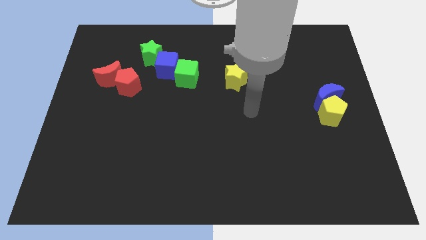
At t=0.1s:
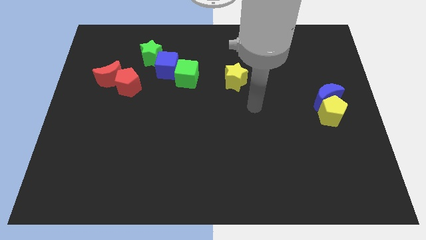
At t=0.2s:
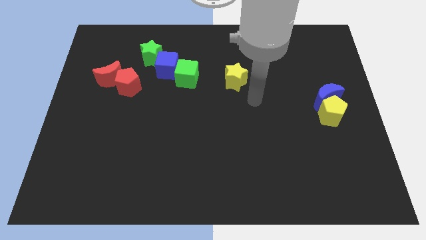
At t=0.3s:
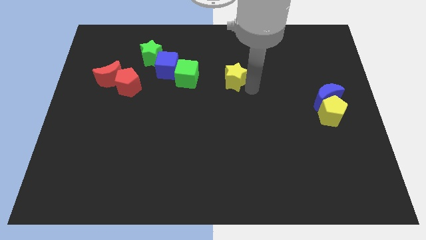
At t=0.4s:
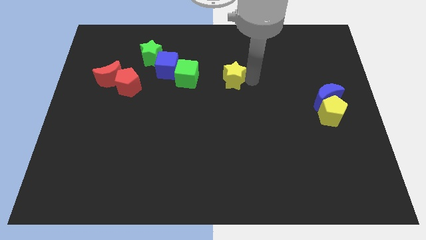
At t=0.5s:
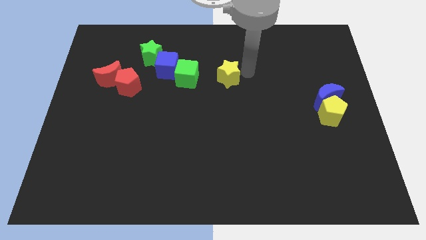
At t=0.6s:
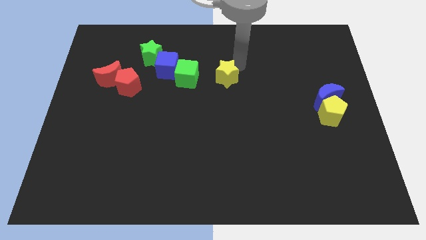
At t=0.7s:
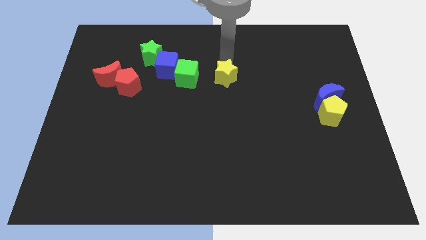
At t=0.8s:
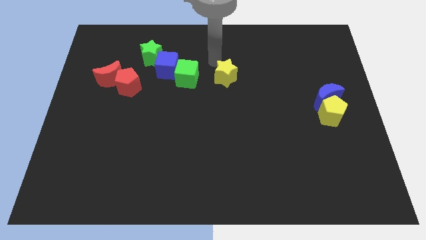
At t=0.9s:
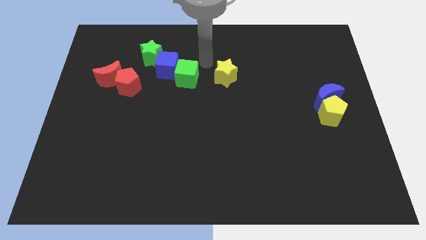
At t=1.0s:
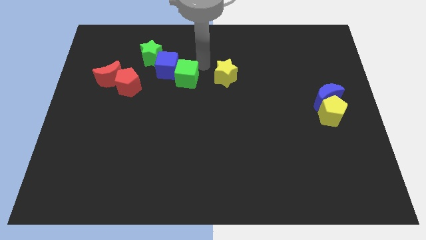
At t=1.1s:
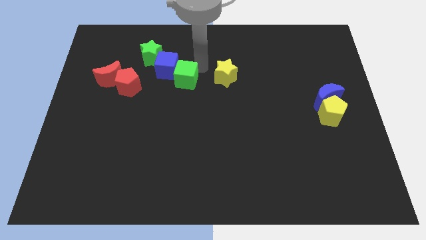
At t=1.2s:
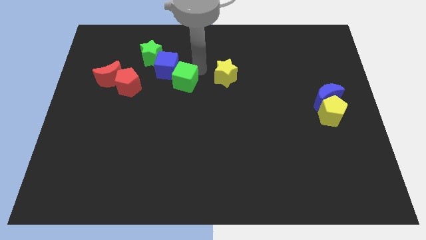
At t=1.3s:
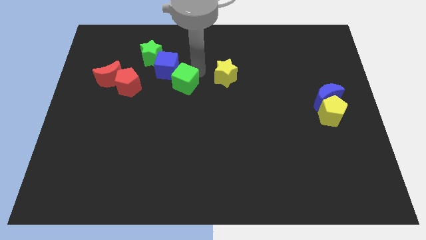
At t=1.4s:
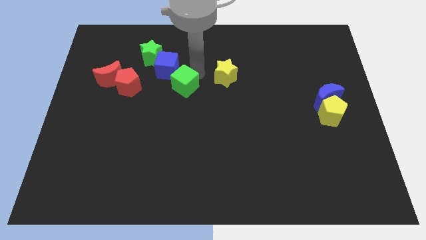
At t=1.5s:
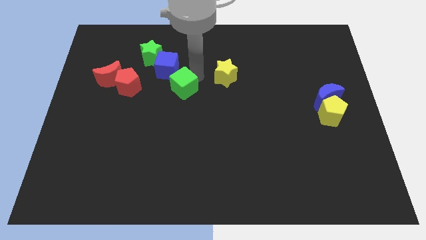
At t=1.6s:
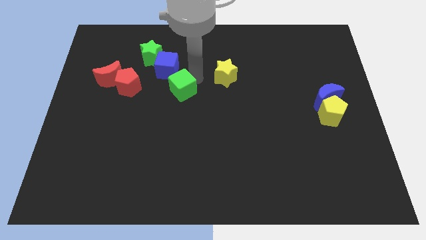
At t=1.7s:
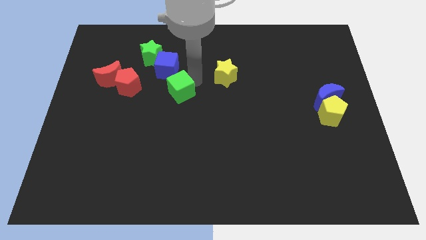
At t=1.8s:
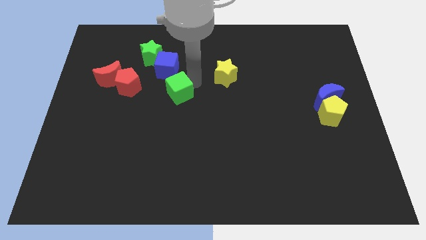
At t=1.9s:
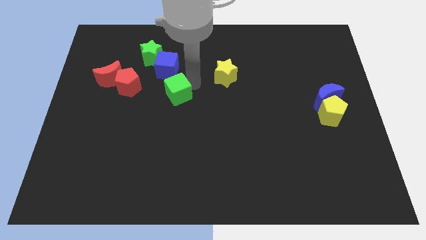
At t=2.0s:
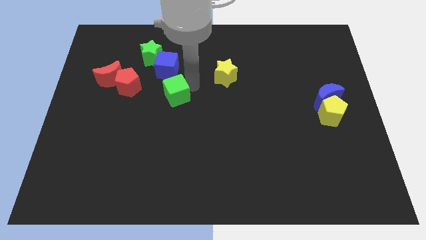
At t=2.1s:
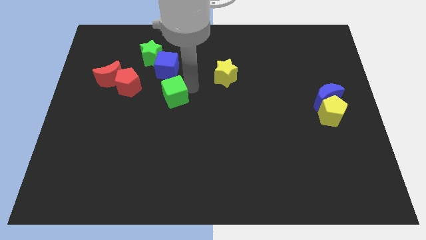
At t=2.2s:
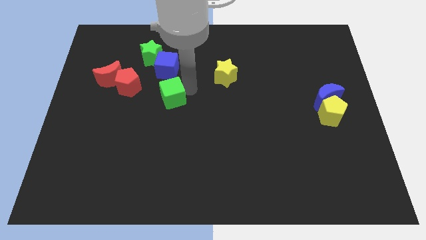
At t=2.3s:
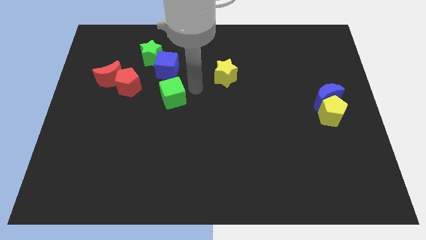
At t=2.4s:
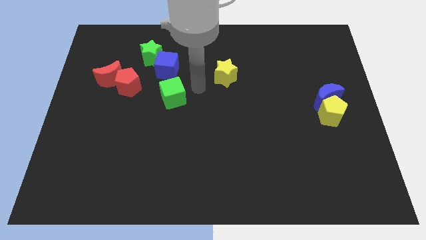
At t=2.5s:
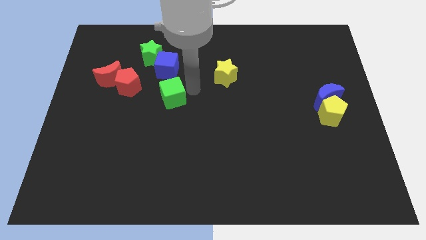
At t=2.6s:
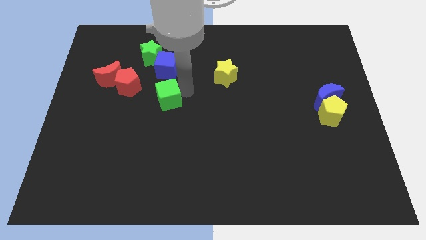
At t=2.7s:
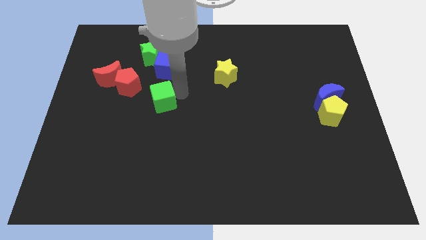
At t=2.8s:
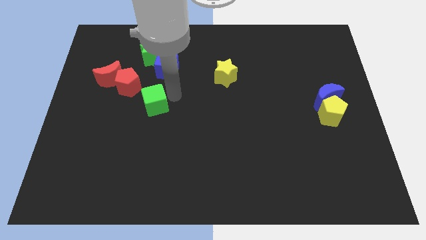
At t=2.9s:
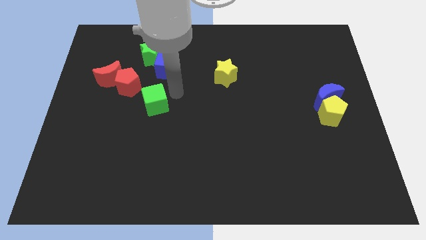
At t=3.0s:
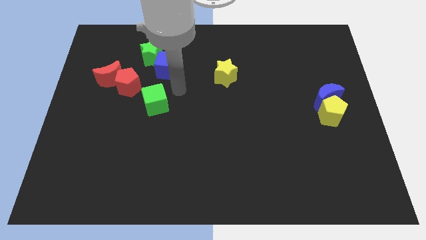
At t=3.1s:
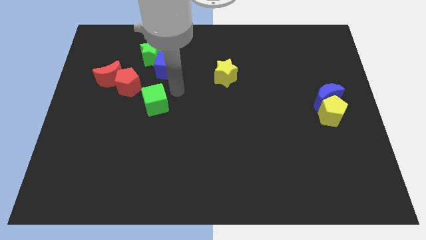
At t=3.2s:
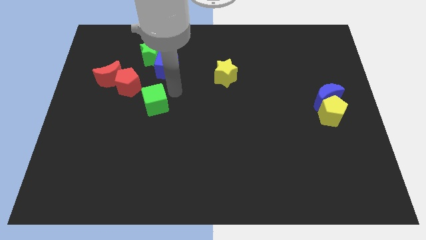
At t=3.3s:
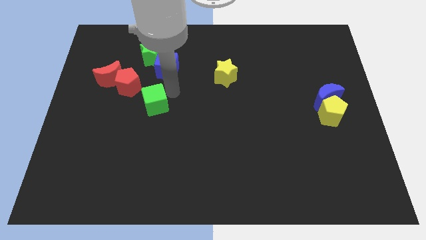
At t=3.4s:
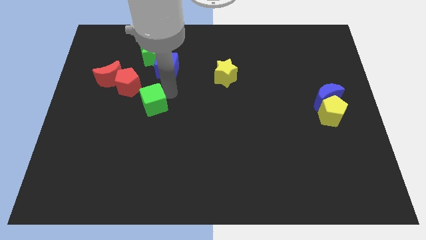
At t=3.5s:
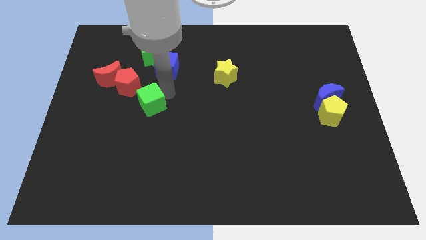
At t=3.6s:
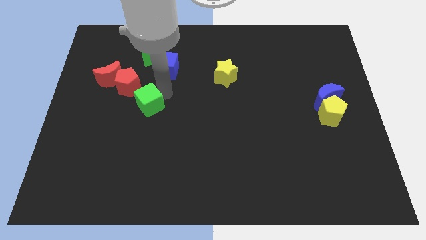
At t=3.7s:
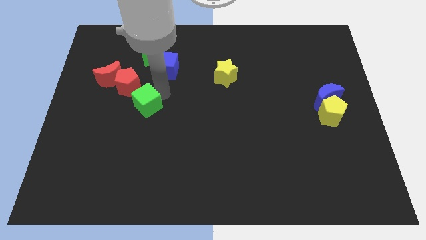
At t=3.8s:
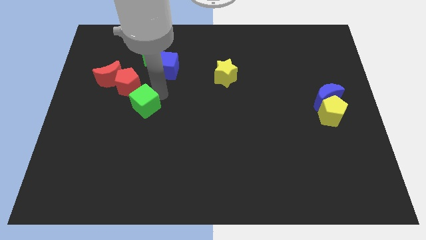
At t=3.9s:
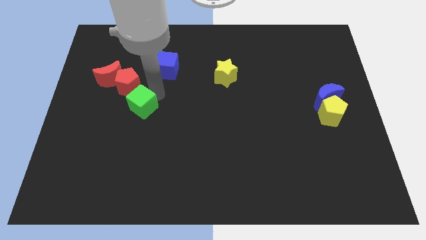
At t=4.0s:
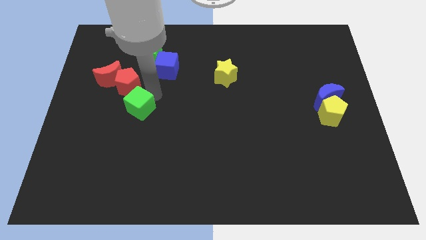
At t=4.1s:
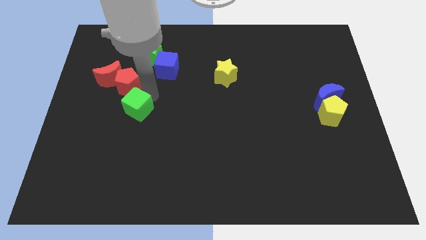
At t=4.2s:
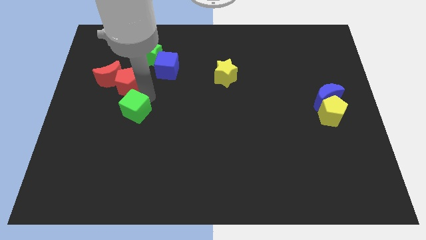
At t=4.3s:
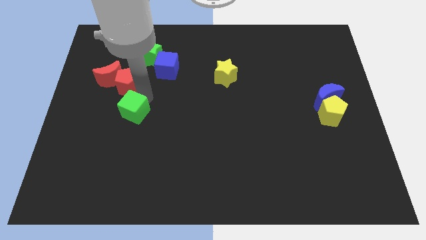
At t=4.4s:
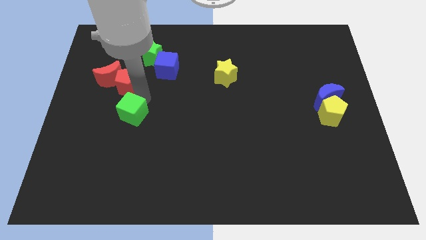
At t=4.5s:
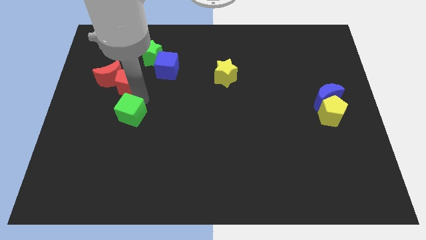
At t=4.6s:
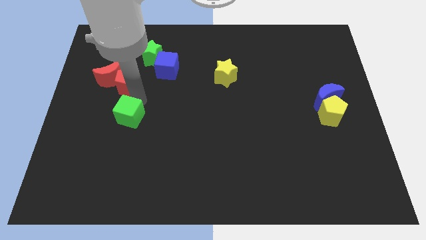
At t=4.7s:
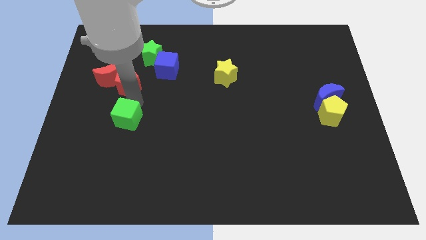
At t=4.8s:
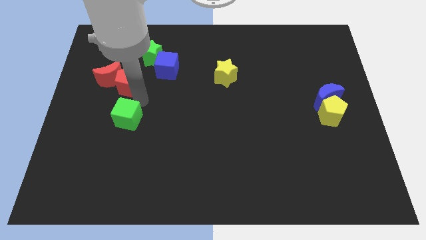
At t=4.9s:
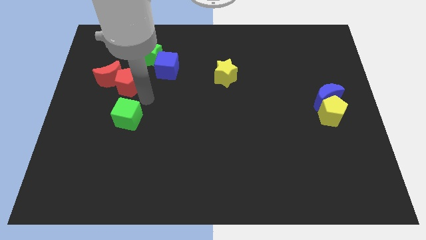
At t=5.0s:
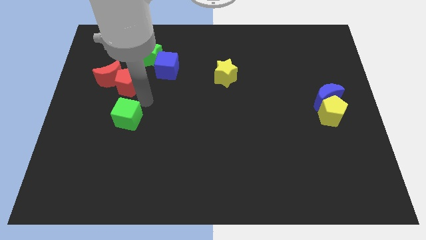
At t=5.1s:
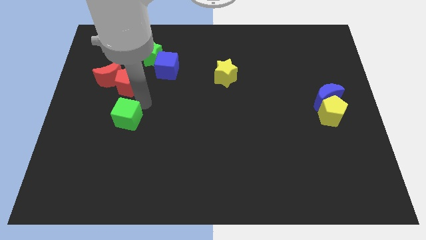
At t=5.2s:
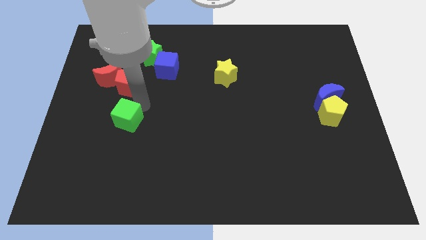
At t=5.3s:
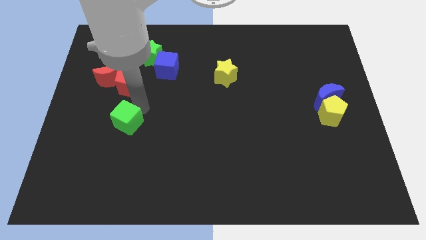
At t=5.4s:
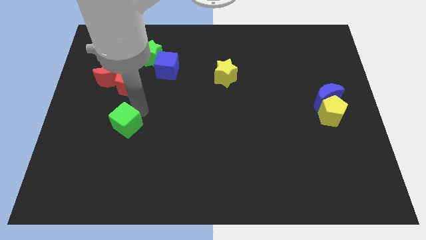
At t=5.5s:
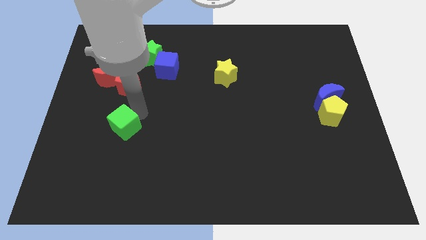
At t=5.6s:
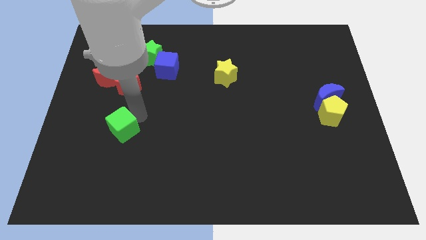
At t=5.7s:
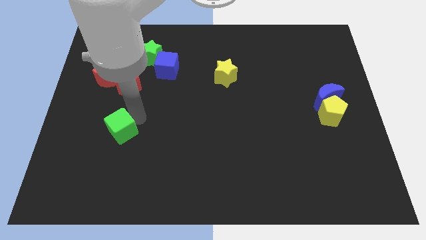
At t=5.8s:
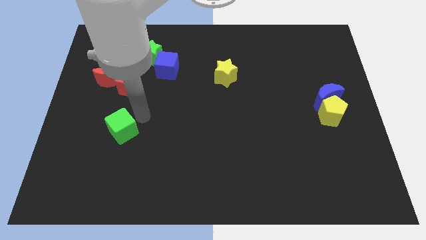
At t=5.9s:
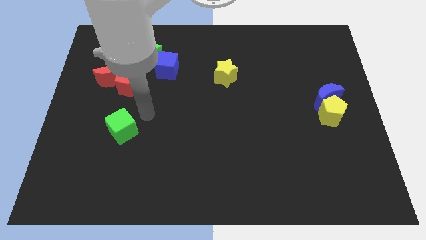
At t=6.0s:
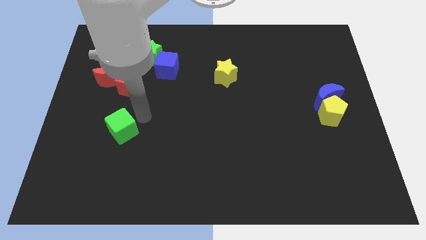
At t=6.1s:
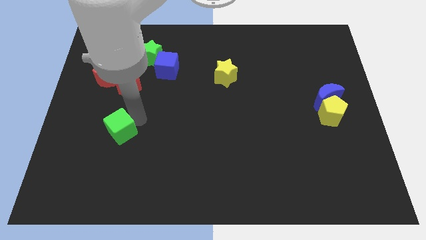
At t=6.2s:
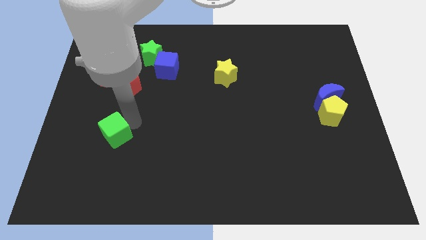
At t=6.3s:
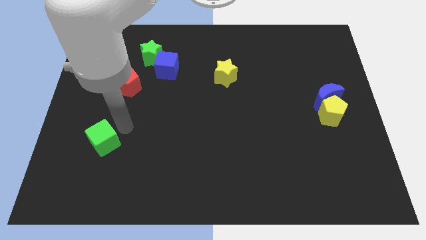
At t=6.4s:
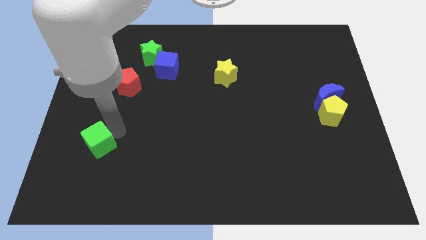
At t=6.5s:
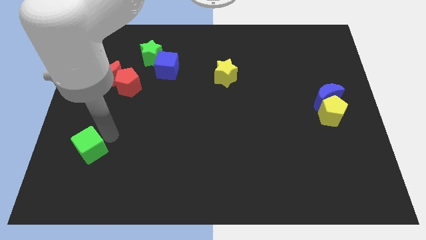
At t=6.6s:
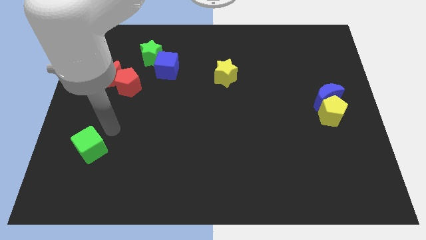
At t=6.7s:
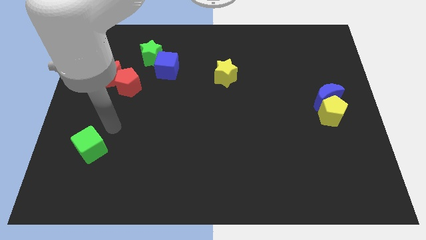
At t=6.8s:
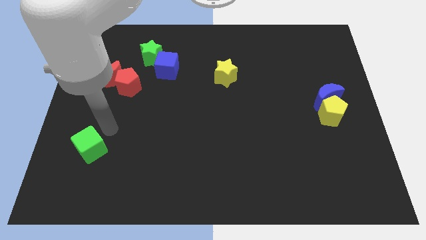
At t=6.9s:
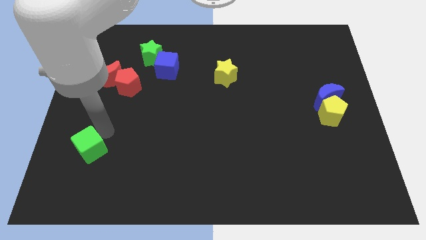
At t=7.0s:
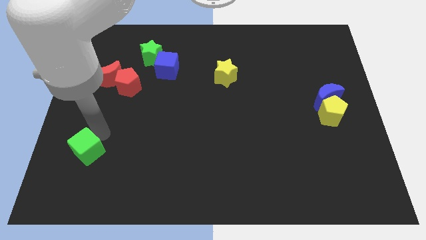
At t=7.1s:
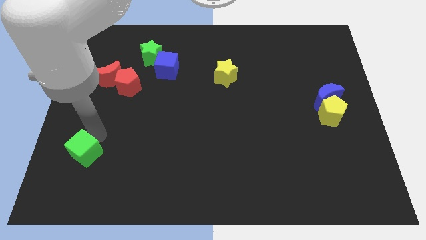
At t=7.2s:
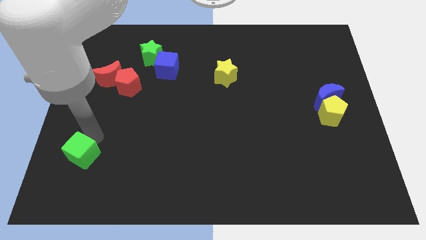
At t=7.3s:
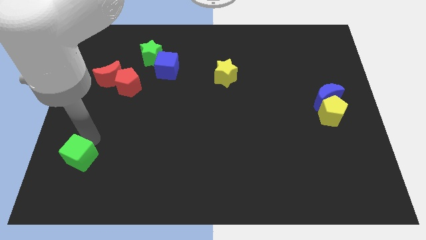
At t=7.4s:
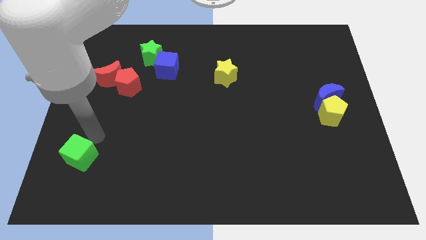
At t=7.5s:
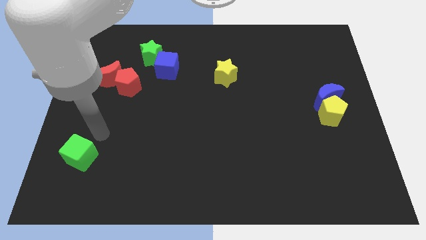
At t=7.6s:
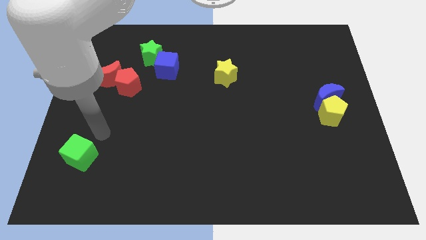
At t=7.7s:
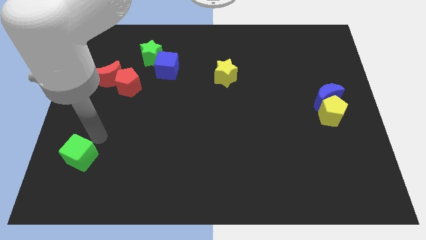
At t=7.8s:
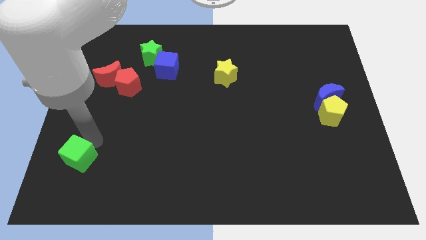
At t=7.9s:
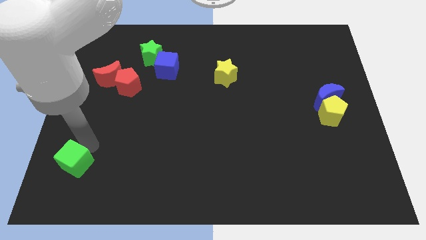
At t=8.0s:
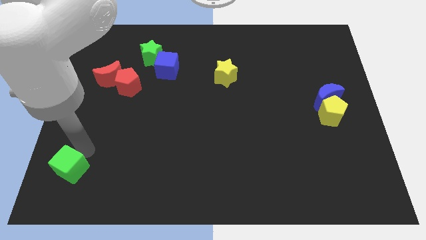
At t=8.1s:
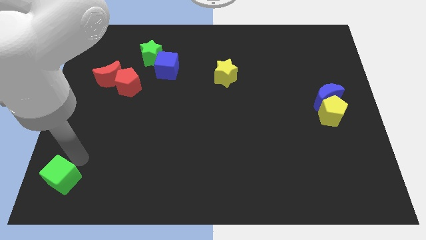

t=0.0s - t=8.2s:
move the green cube to the bottom left of the board
